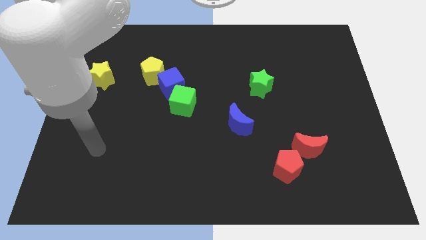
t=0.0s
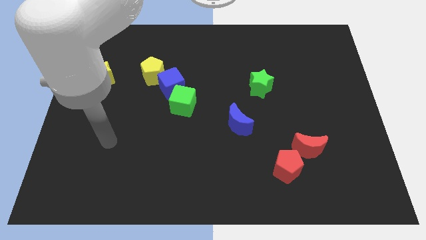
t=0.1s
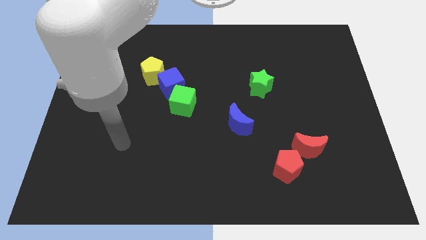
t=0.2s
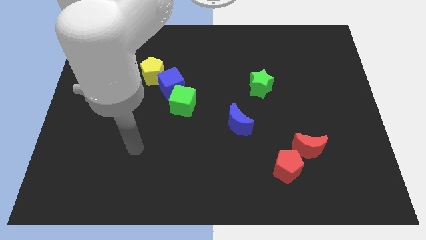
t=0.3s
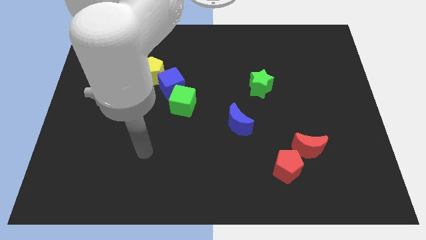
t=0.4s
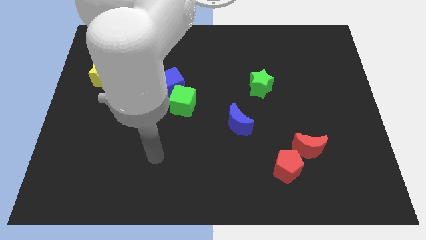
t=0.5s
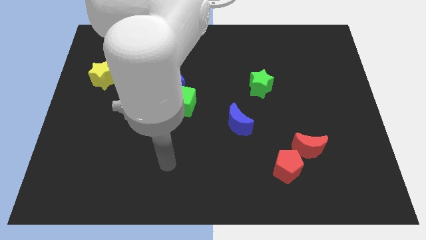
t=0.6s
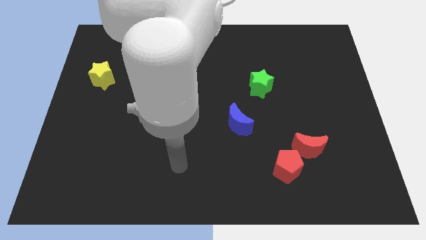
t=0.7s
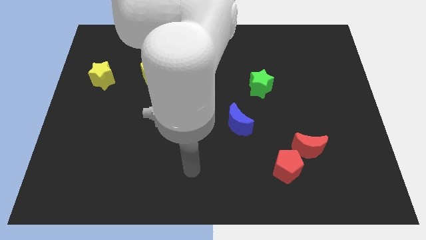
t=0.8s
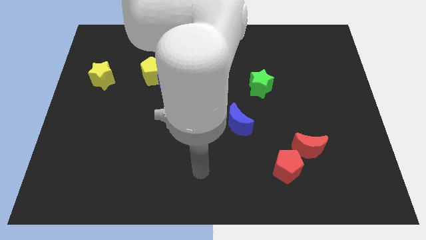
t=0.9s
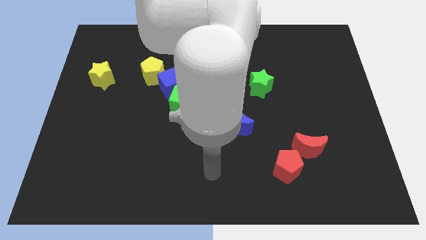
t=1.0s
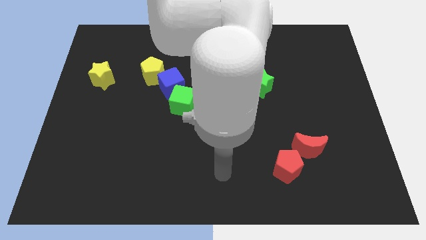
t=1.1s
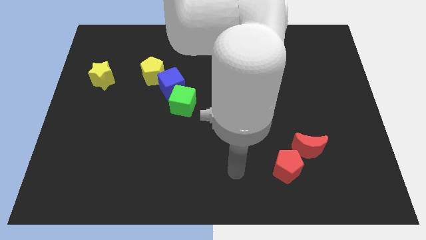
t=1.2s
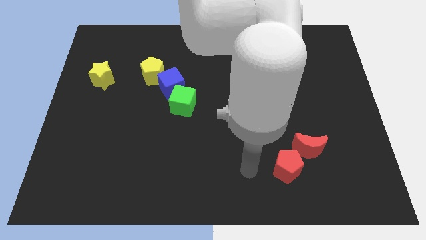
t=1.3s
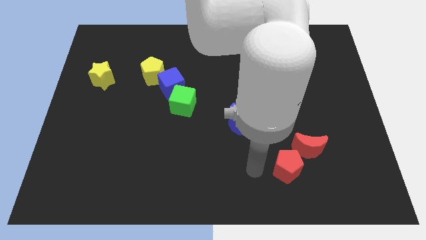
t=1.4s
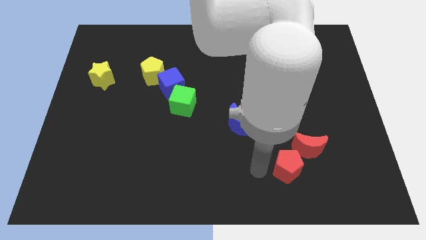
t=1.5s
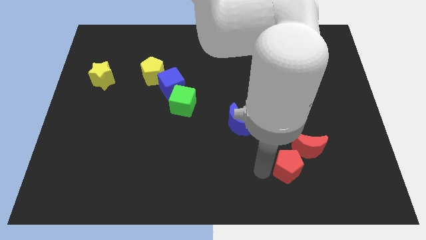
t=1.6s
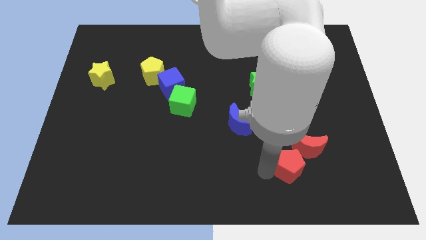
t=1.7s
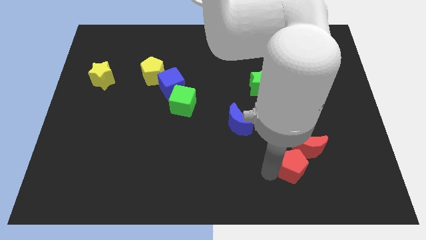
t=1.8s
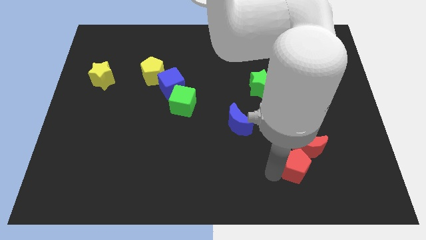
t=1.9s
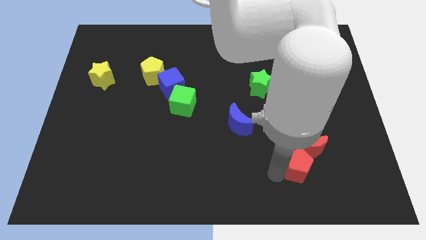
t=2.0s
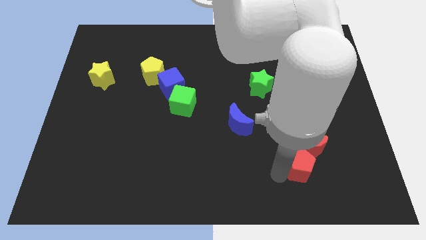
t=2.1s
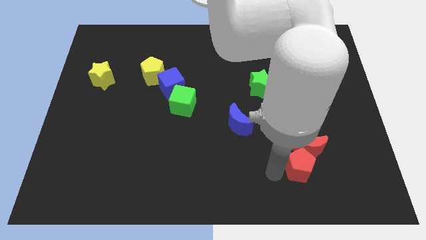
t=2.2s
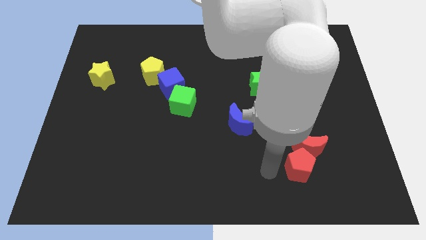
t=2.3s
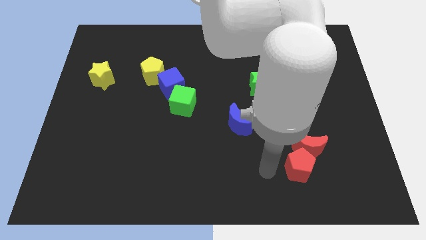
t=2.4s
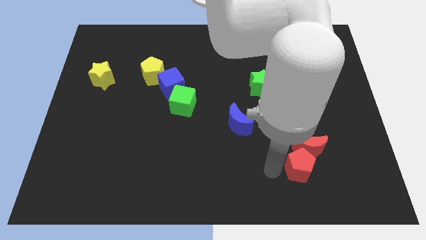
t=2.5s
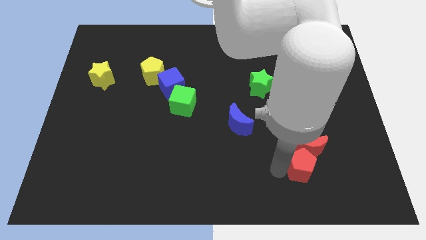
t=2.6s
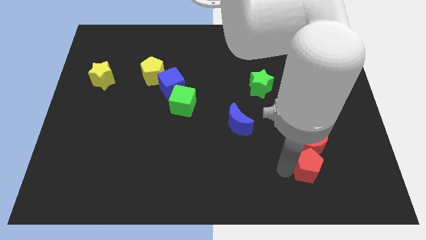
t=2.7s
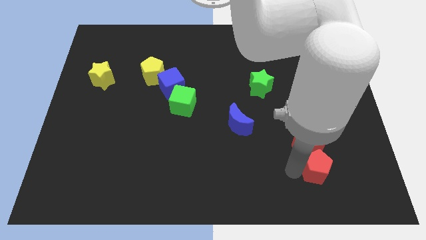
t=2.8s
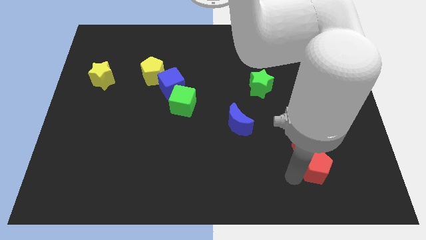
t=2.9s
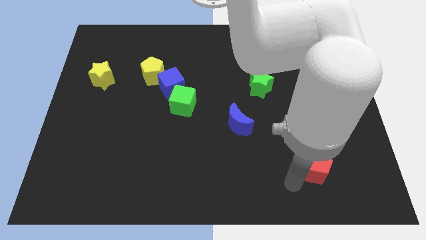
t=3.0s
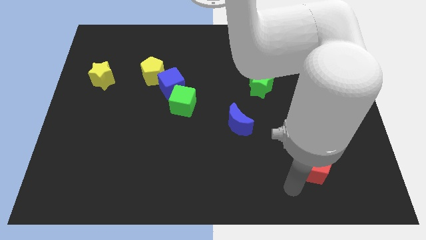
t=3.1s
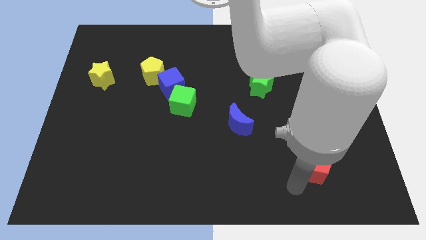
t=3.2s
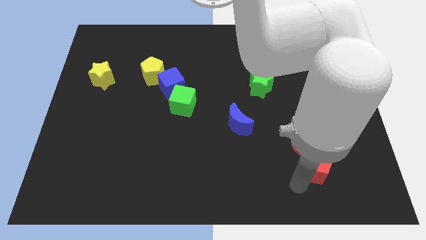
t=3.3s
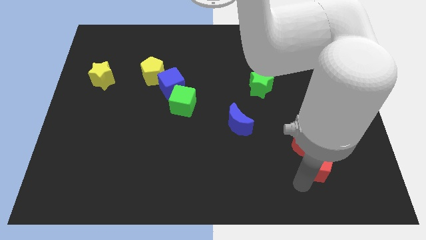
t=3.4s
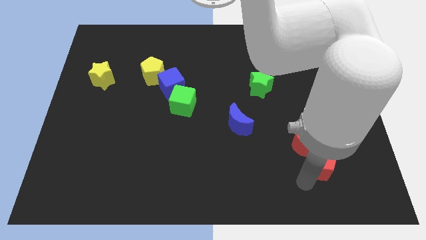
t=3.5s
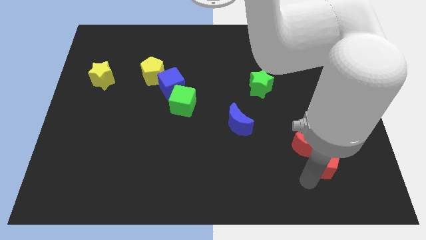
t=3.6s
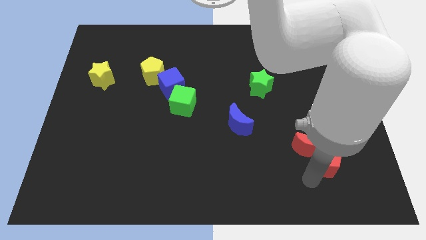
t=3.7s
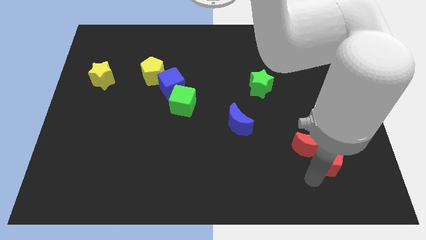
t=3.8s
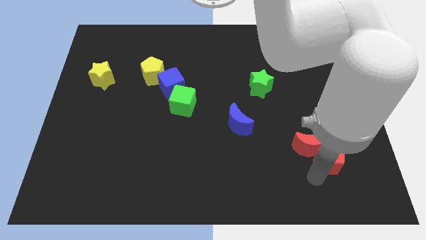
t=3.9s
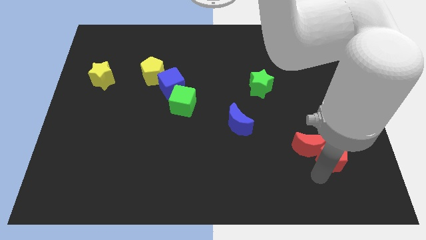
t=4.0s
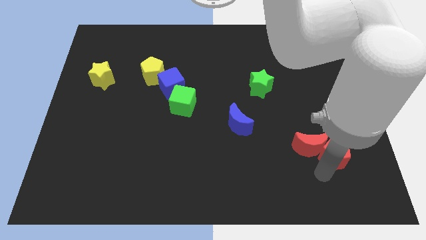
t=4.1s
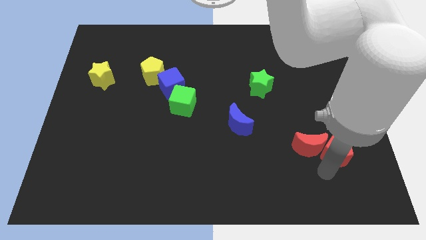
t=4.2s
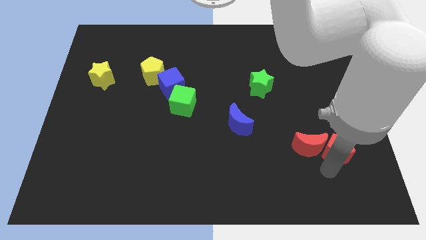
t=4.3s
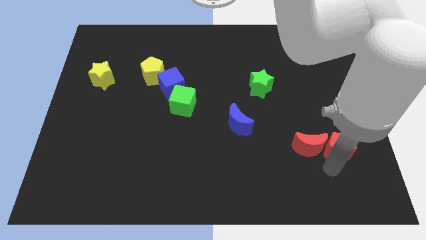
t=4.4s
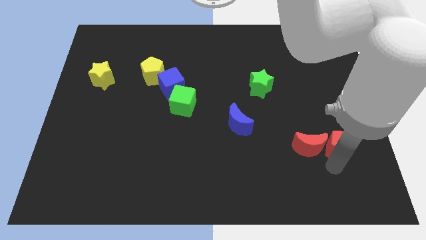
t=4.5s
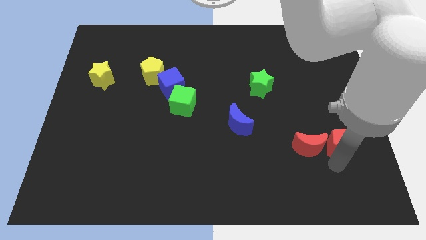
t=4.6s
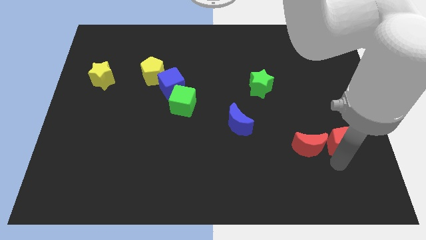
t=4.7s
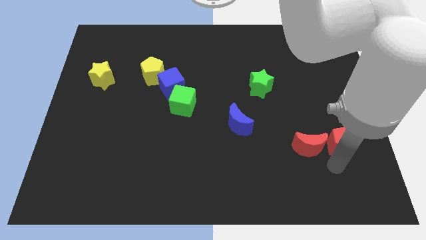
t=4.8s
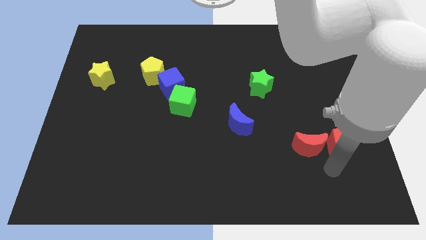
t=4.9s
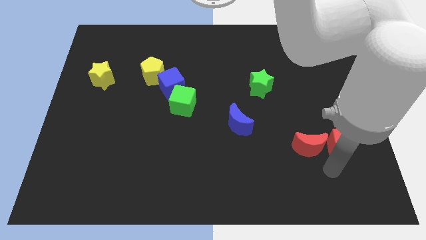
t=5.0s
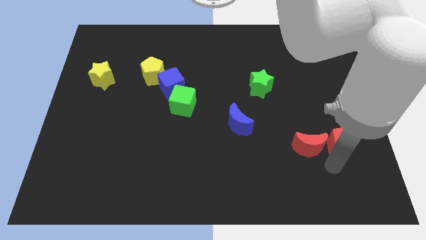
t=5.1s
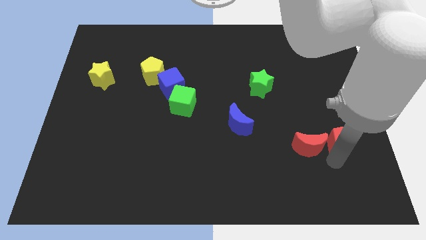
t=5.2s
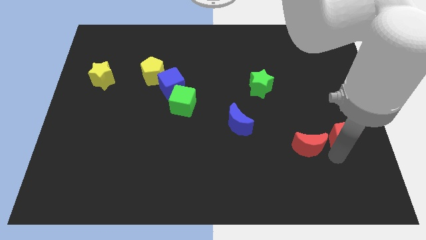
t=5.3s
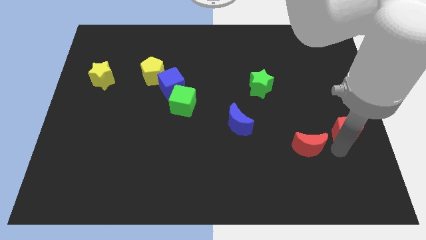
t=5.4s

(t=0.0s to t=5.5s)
move the red pentagon to the right side

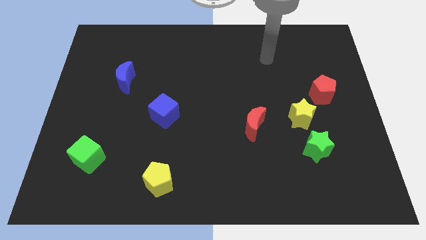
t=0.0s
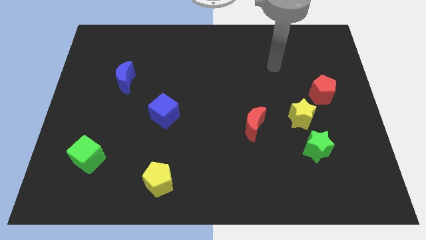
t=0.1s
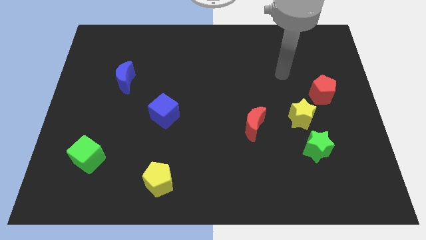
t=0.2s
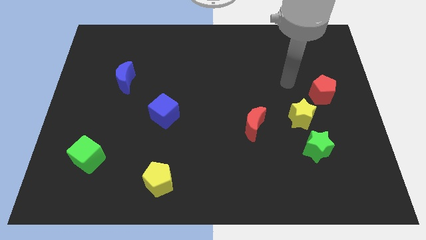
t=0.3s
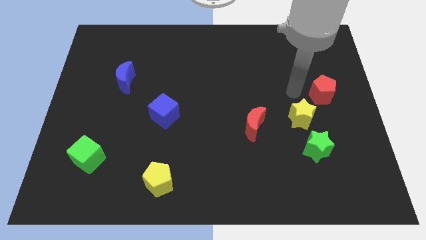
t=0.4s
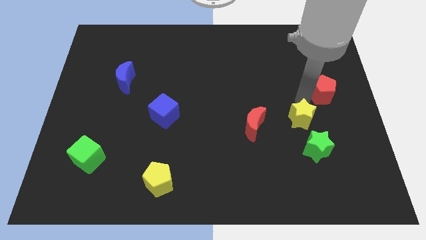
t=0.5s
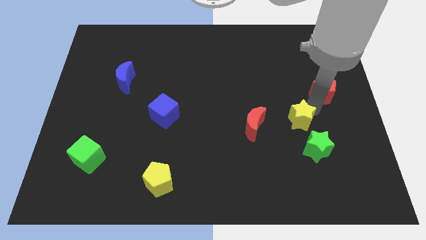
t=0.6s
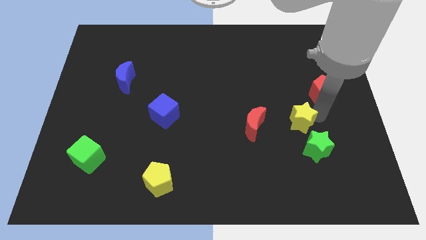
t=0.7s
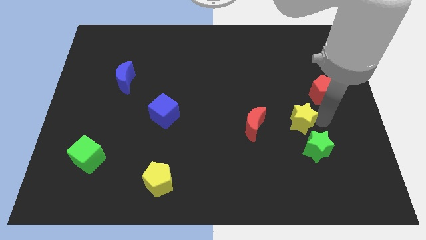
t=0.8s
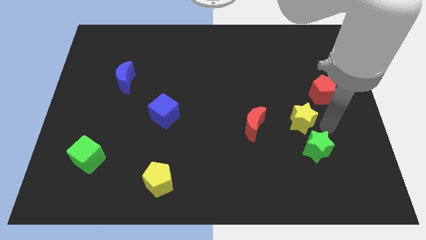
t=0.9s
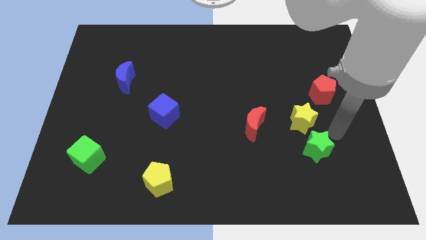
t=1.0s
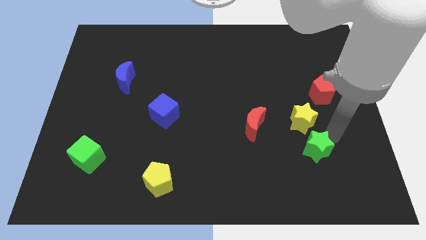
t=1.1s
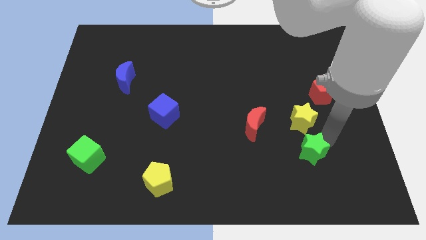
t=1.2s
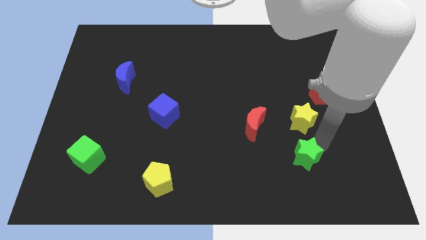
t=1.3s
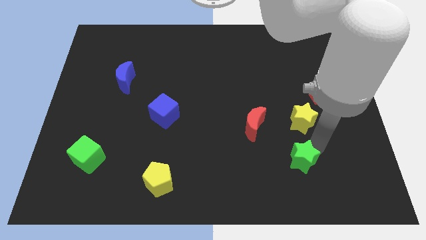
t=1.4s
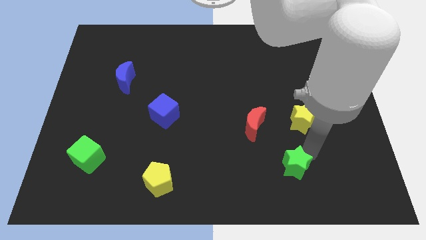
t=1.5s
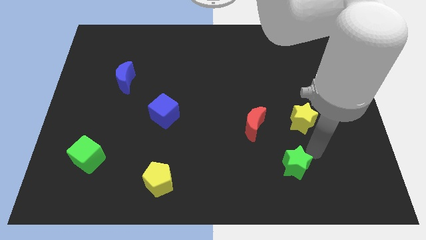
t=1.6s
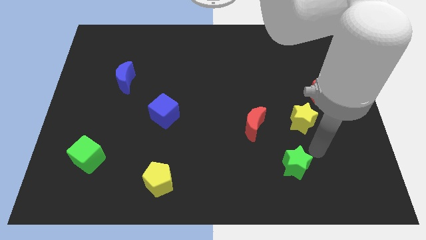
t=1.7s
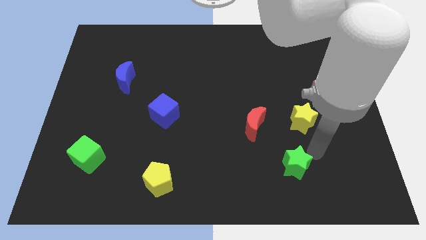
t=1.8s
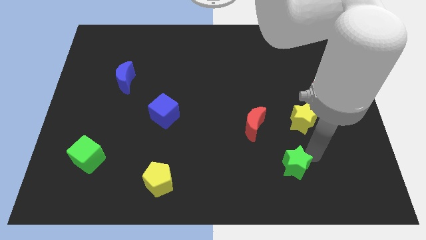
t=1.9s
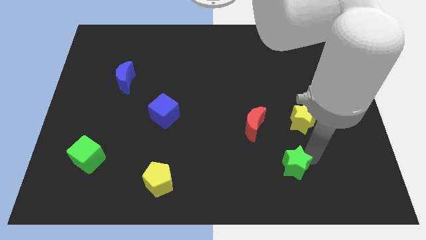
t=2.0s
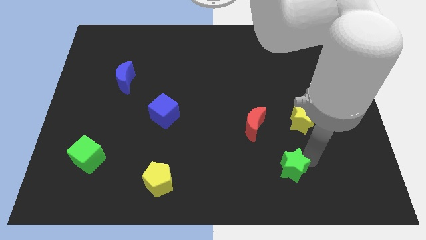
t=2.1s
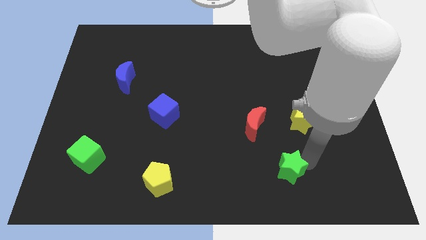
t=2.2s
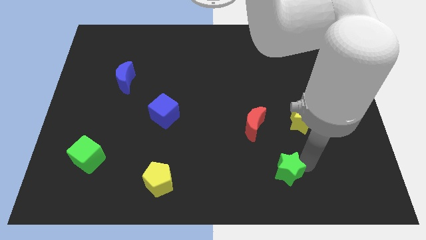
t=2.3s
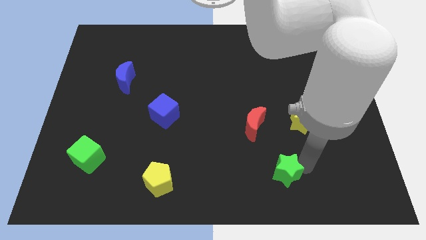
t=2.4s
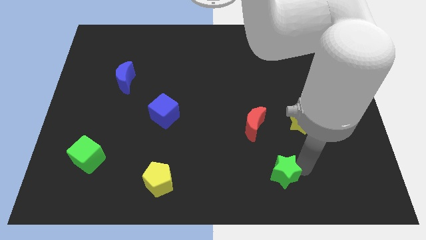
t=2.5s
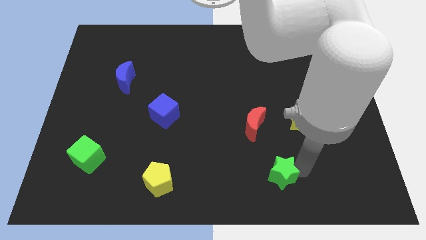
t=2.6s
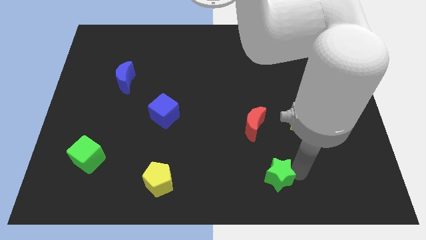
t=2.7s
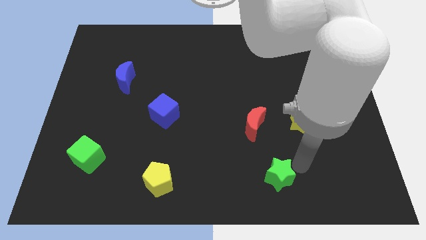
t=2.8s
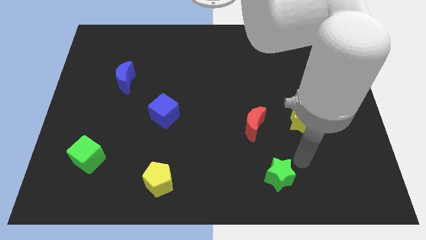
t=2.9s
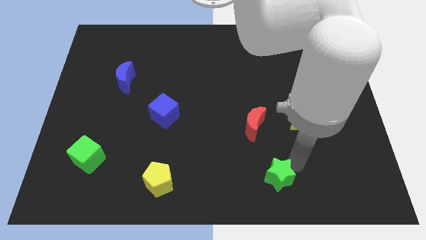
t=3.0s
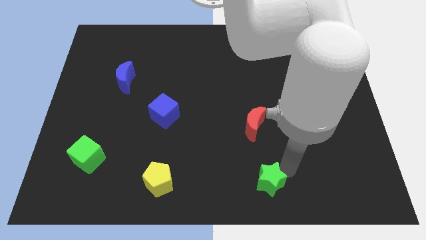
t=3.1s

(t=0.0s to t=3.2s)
put the green star to the bottom
